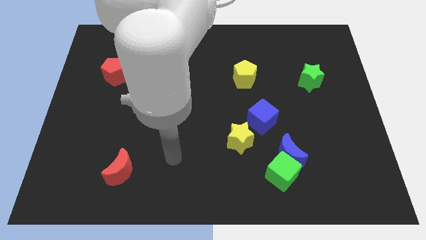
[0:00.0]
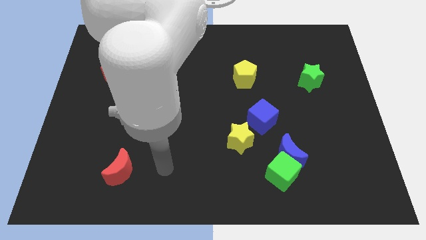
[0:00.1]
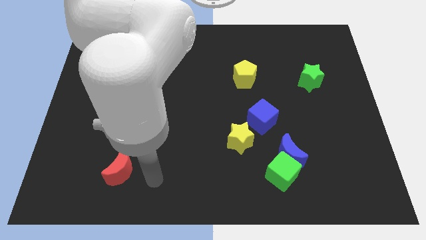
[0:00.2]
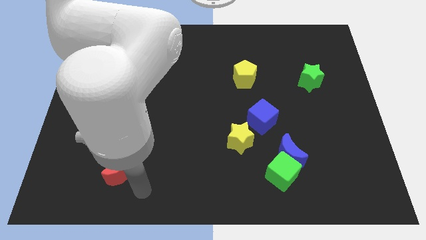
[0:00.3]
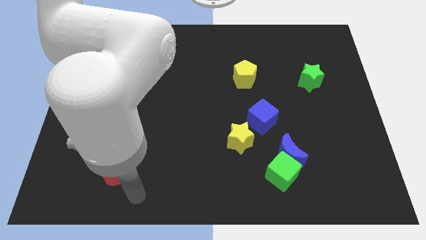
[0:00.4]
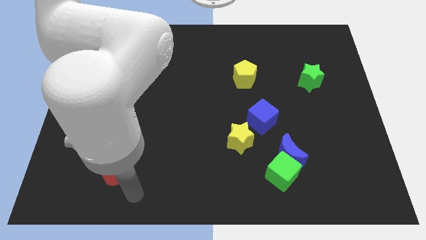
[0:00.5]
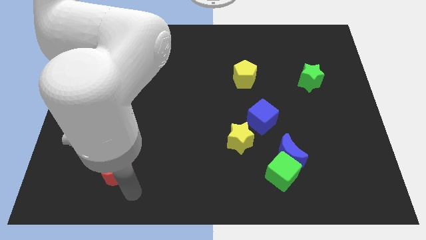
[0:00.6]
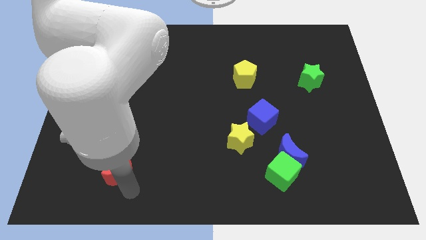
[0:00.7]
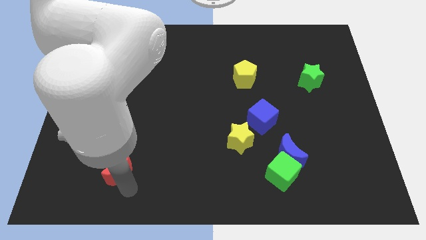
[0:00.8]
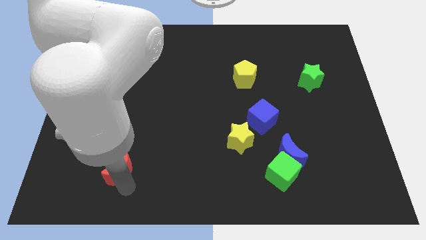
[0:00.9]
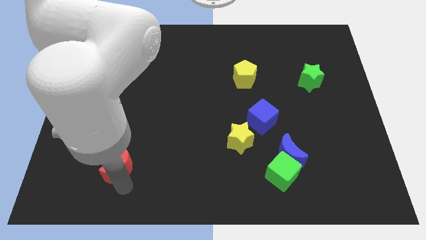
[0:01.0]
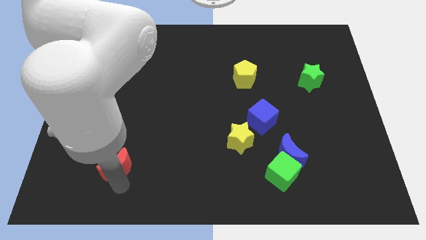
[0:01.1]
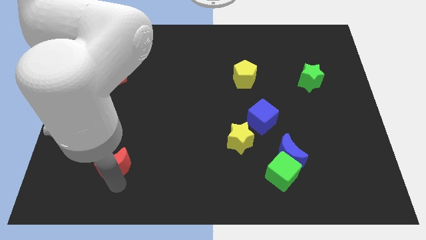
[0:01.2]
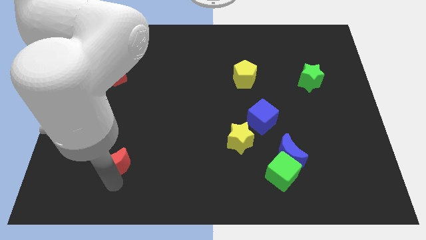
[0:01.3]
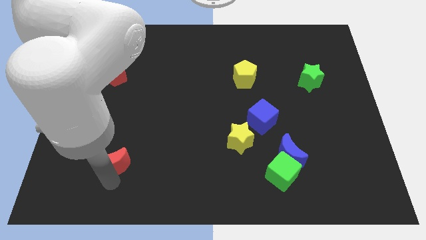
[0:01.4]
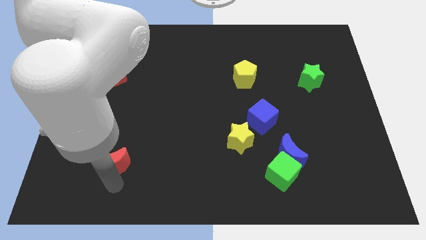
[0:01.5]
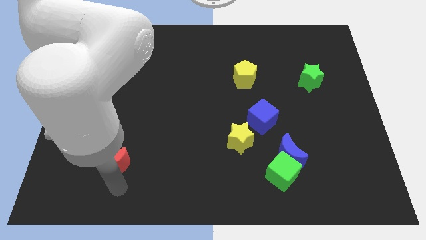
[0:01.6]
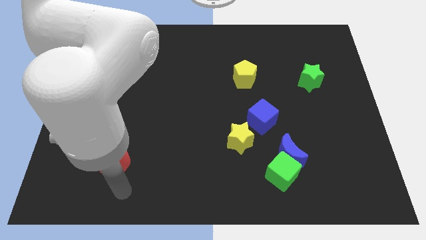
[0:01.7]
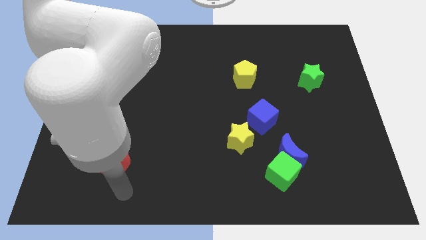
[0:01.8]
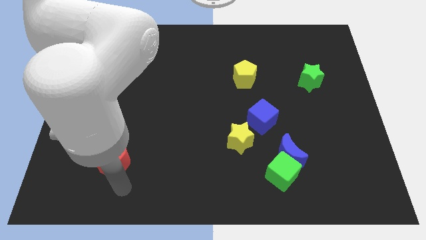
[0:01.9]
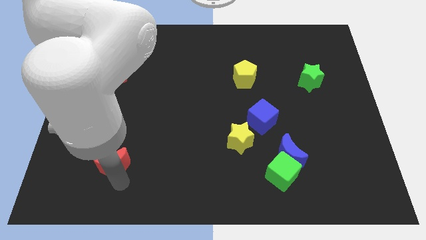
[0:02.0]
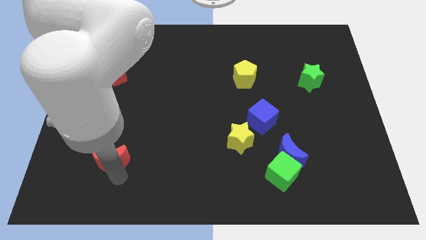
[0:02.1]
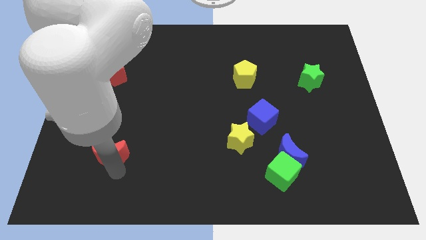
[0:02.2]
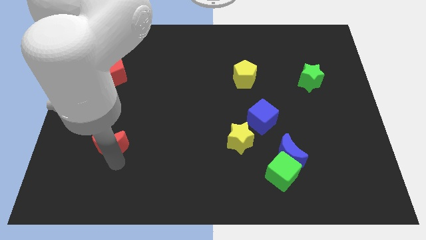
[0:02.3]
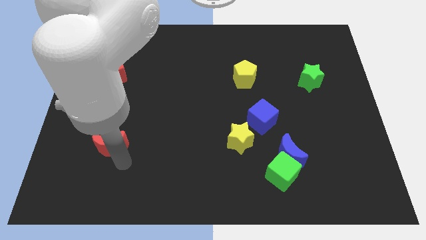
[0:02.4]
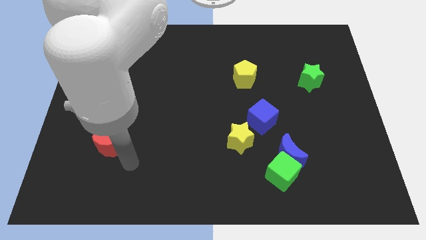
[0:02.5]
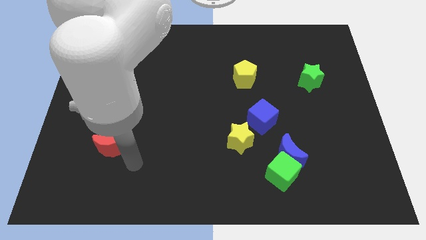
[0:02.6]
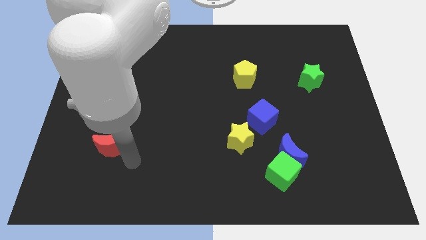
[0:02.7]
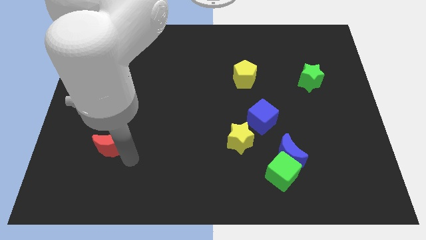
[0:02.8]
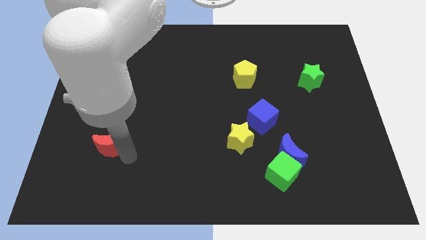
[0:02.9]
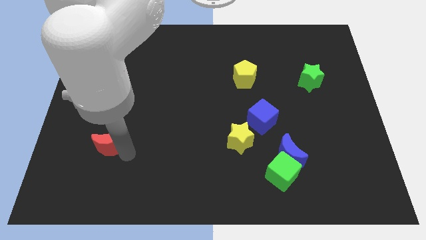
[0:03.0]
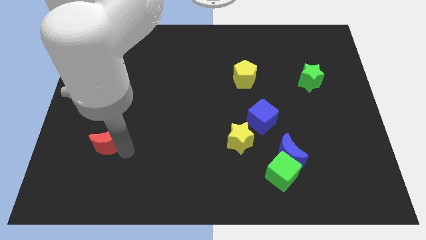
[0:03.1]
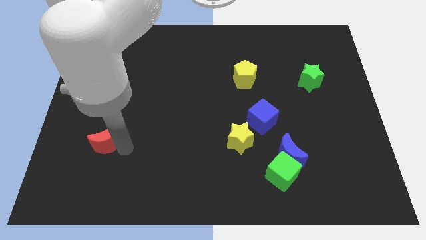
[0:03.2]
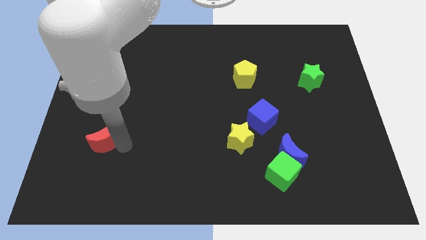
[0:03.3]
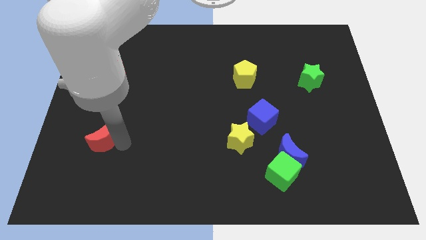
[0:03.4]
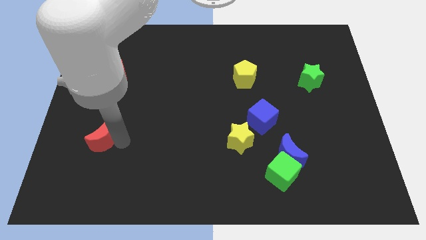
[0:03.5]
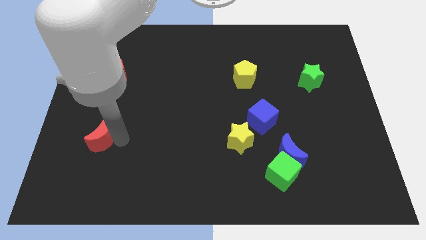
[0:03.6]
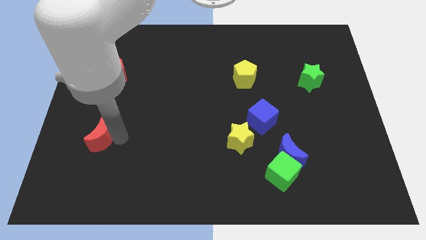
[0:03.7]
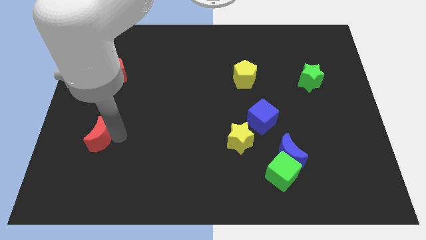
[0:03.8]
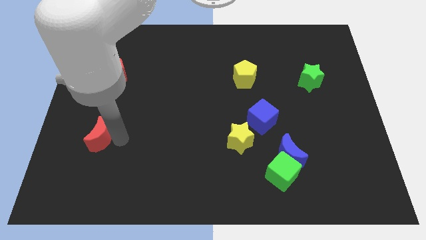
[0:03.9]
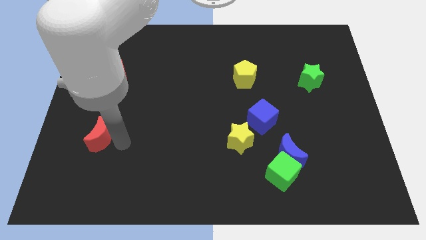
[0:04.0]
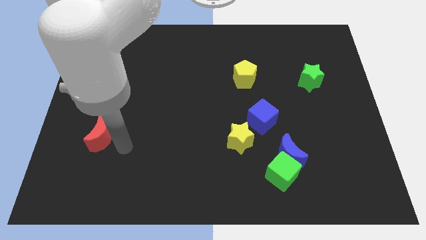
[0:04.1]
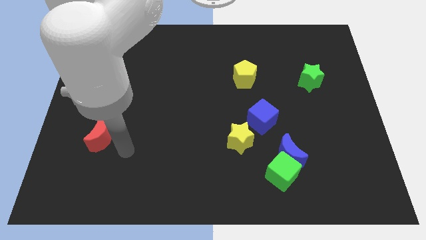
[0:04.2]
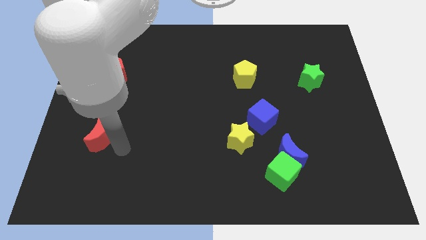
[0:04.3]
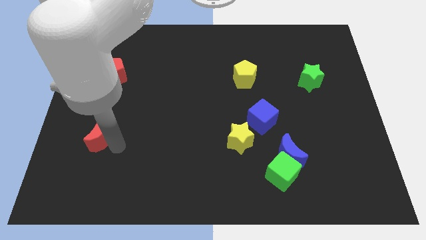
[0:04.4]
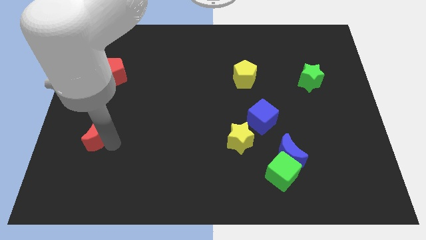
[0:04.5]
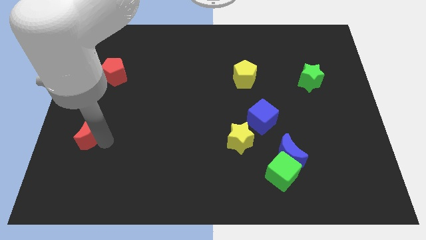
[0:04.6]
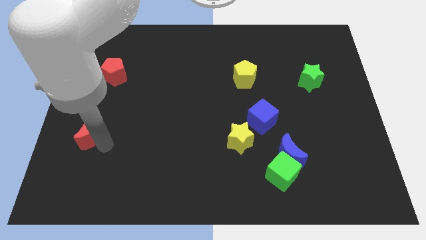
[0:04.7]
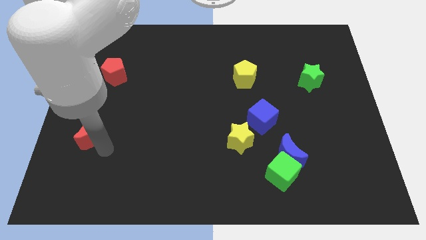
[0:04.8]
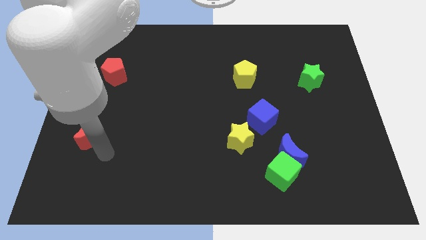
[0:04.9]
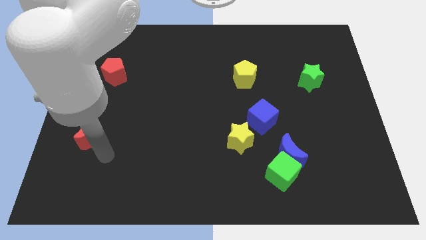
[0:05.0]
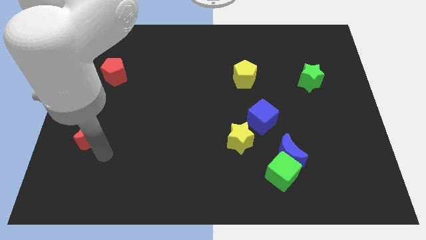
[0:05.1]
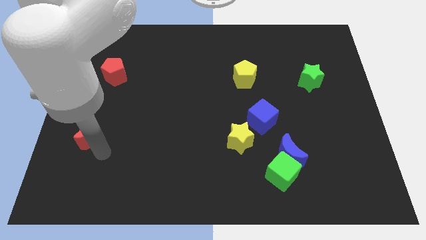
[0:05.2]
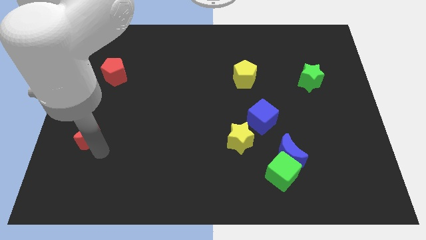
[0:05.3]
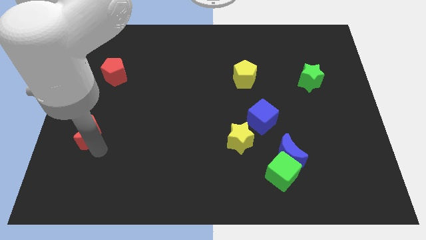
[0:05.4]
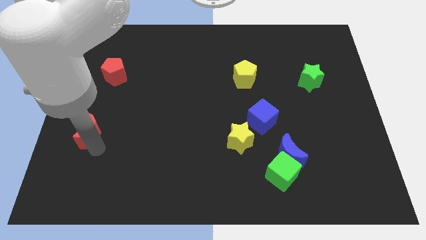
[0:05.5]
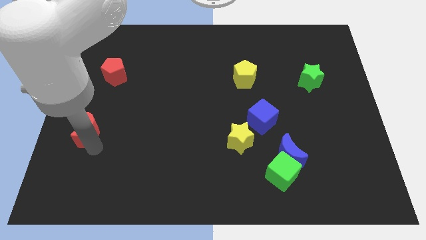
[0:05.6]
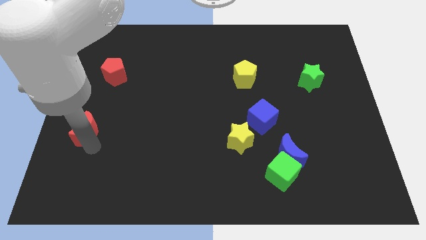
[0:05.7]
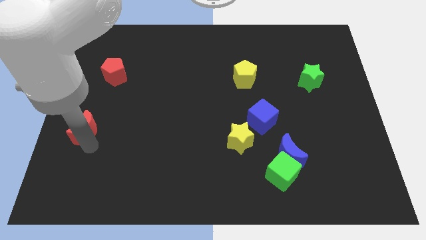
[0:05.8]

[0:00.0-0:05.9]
push the red moon to the center left
